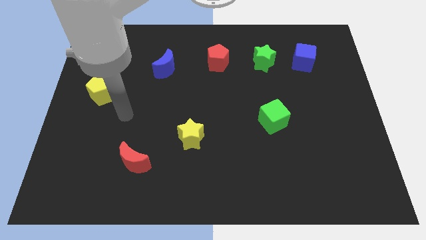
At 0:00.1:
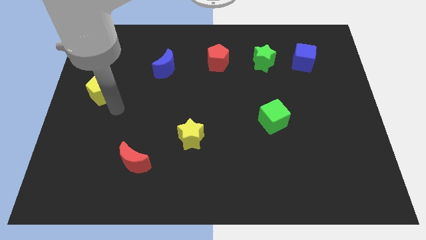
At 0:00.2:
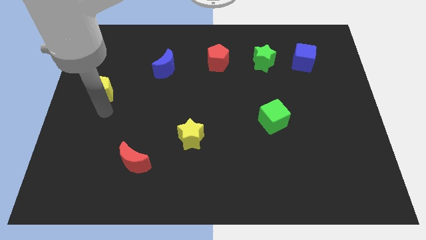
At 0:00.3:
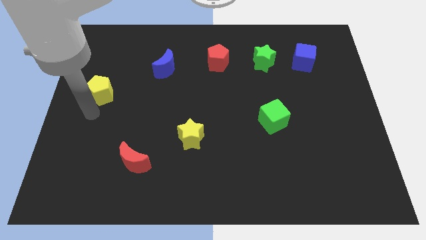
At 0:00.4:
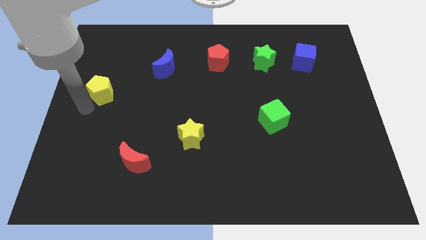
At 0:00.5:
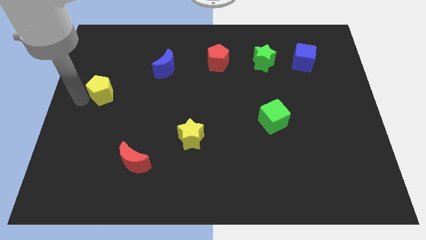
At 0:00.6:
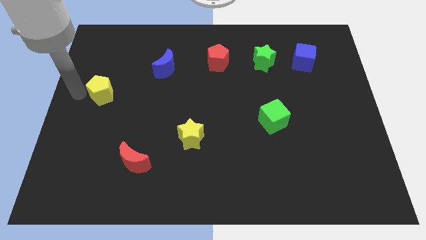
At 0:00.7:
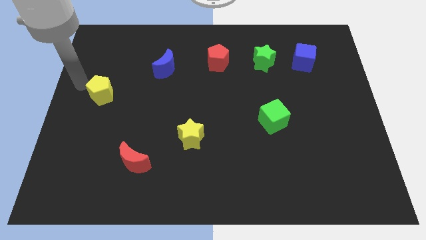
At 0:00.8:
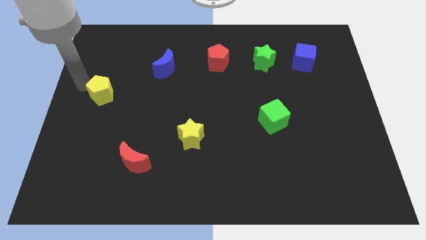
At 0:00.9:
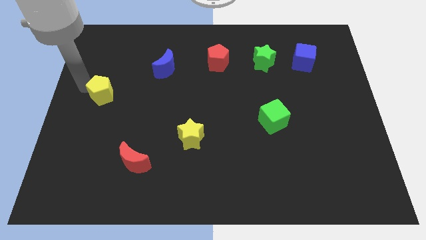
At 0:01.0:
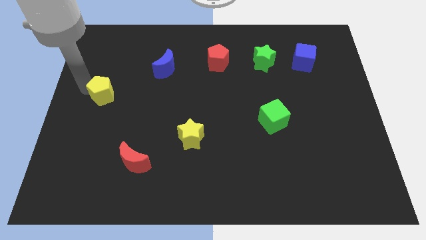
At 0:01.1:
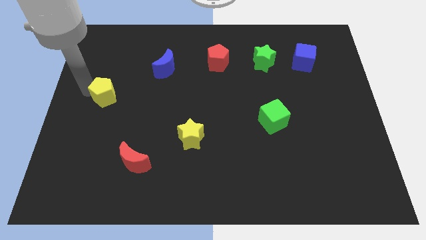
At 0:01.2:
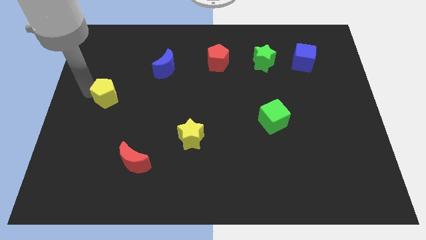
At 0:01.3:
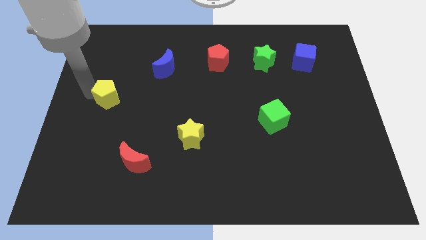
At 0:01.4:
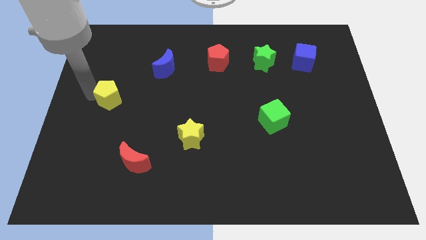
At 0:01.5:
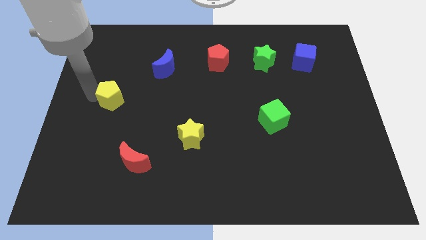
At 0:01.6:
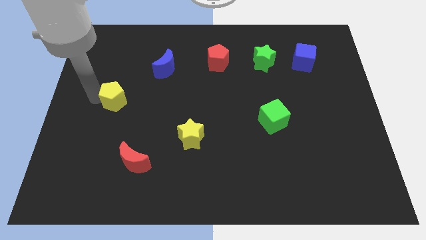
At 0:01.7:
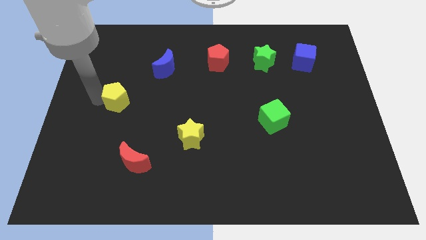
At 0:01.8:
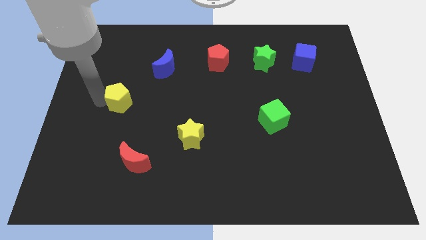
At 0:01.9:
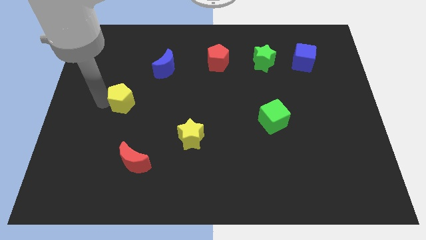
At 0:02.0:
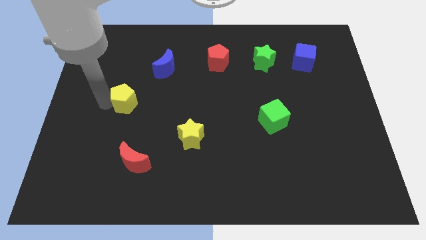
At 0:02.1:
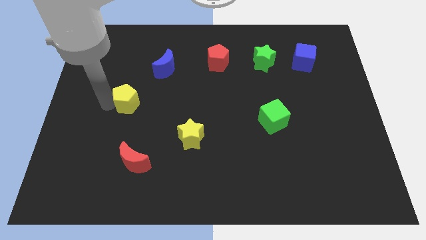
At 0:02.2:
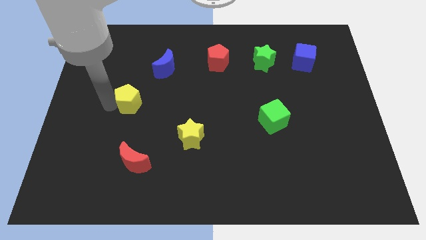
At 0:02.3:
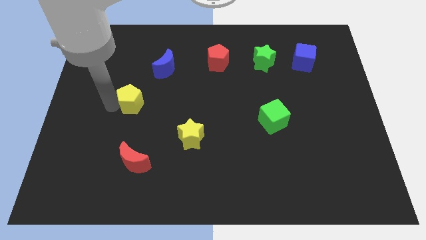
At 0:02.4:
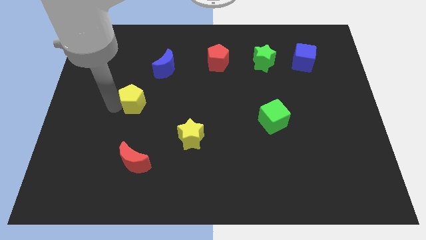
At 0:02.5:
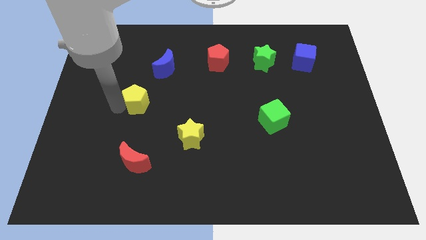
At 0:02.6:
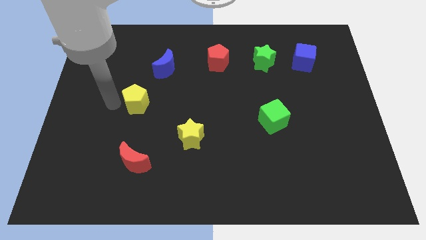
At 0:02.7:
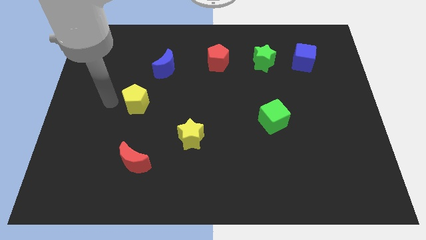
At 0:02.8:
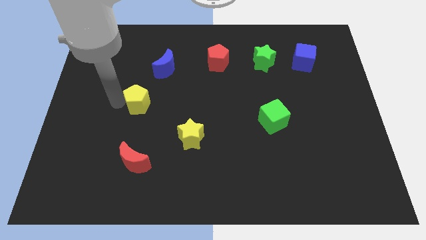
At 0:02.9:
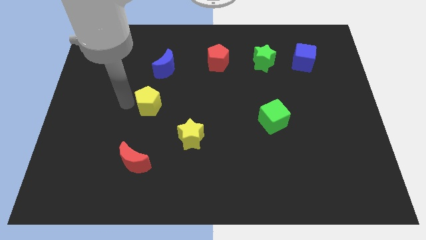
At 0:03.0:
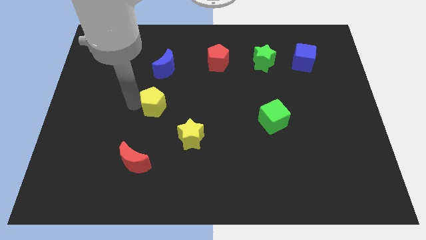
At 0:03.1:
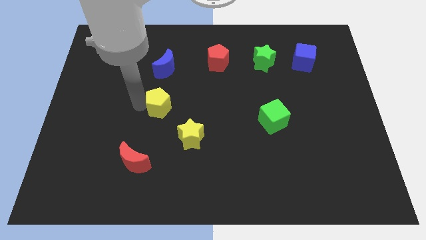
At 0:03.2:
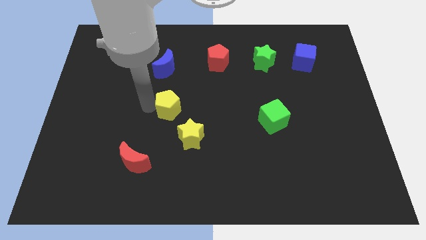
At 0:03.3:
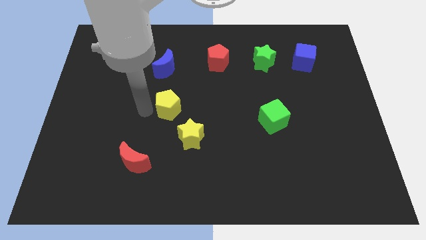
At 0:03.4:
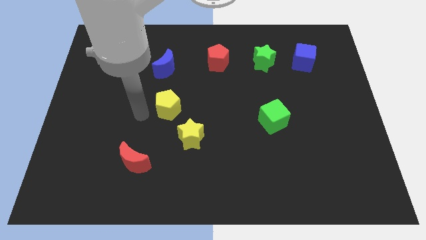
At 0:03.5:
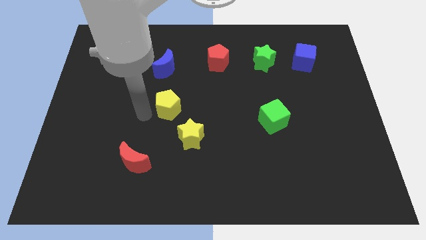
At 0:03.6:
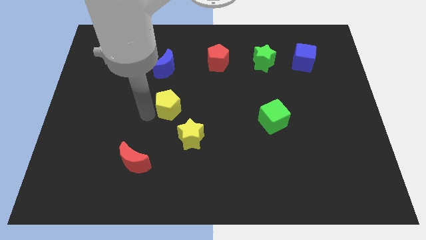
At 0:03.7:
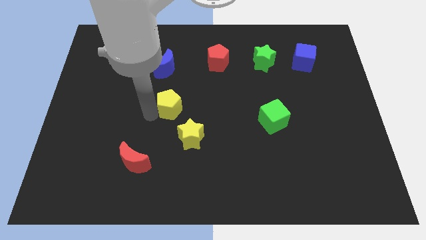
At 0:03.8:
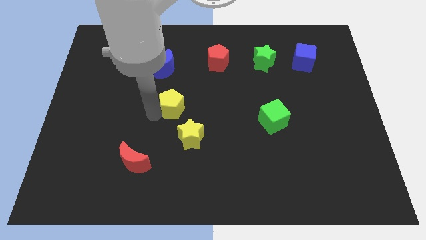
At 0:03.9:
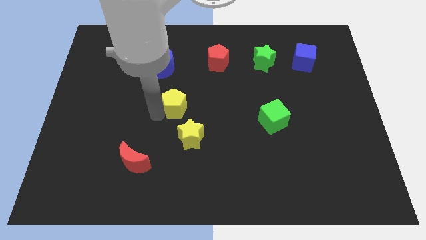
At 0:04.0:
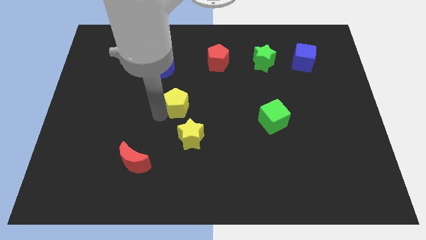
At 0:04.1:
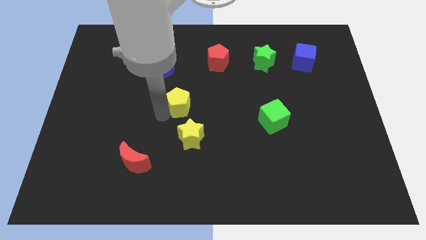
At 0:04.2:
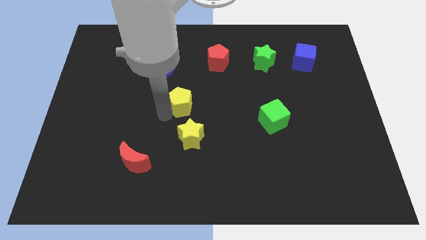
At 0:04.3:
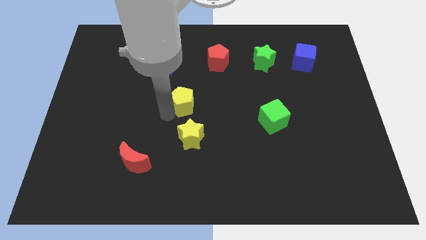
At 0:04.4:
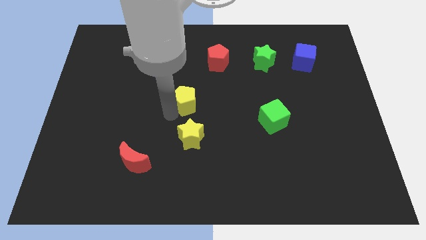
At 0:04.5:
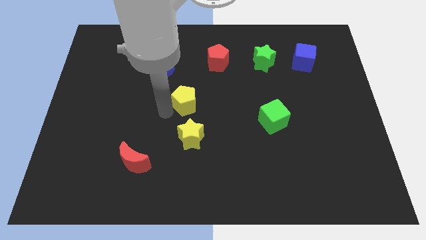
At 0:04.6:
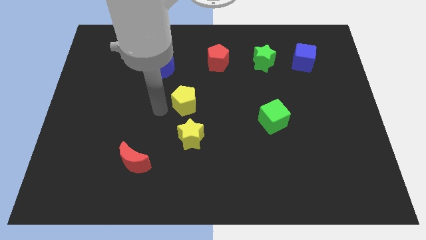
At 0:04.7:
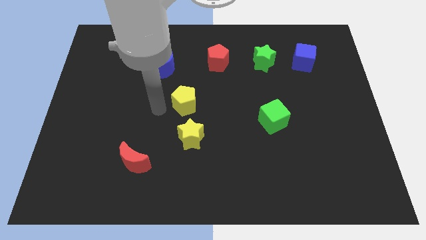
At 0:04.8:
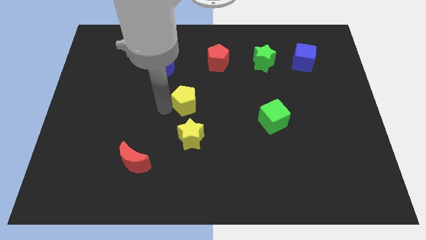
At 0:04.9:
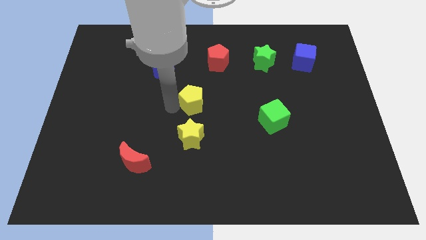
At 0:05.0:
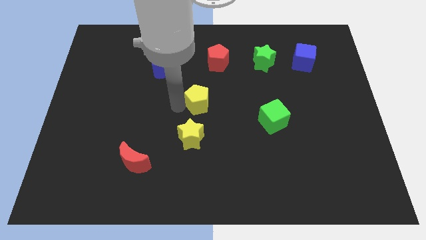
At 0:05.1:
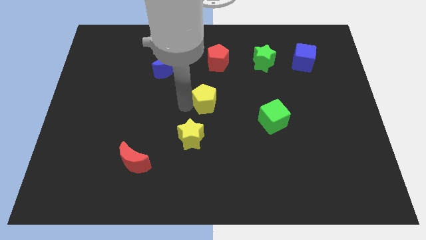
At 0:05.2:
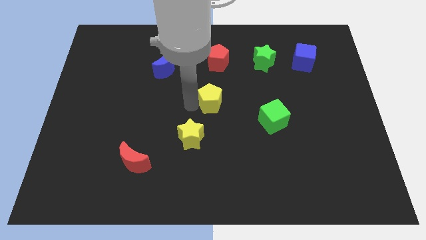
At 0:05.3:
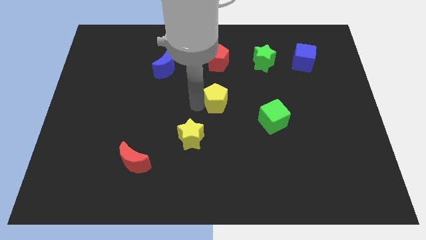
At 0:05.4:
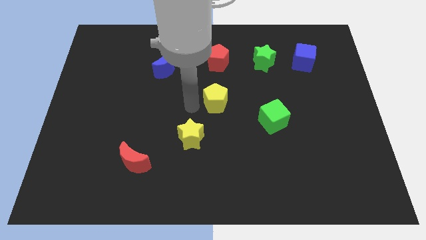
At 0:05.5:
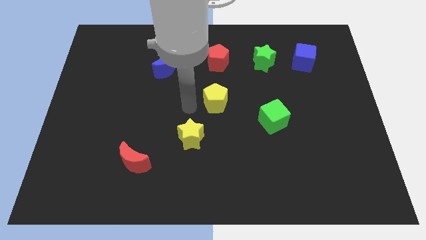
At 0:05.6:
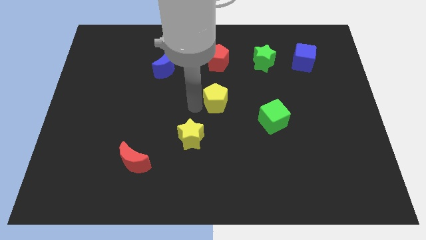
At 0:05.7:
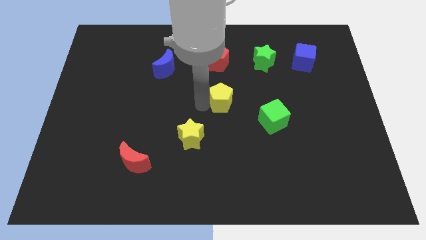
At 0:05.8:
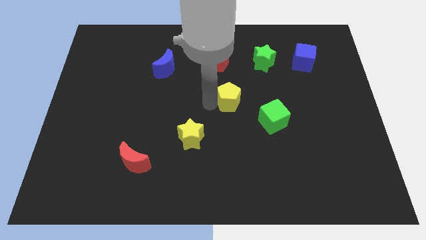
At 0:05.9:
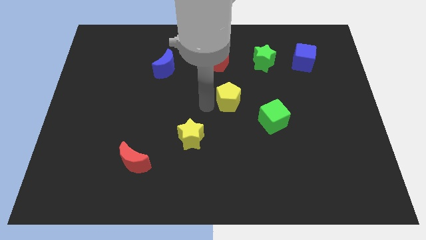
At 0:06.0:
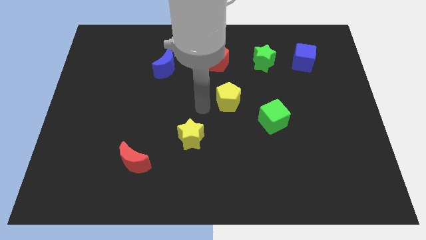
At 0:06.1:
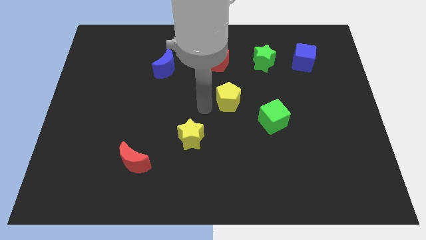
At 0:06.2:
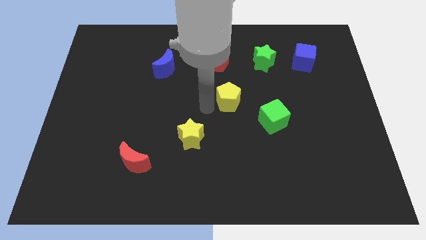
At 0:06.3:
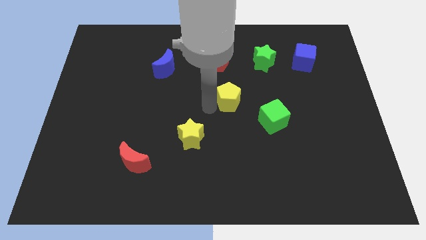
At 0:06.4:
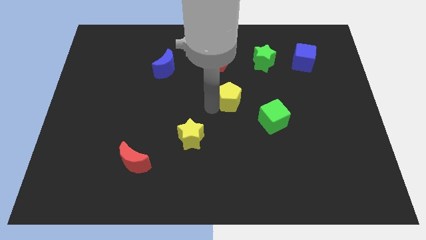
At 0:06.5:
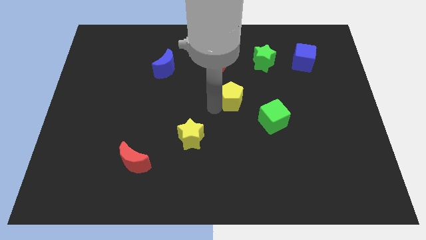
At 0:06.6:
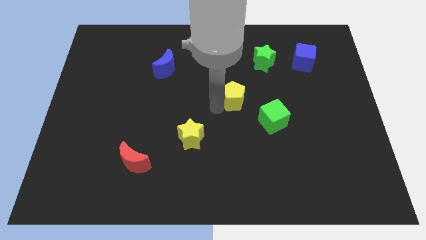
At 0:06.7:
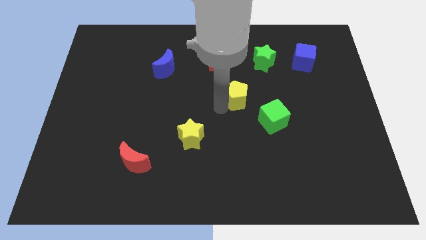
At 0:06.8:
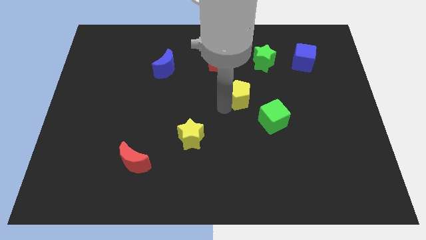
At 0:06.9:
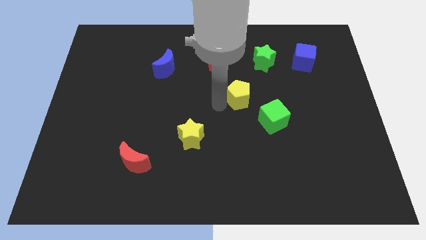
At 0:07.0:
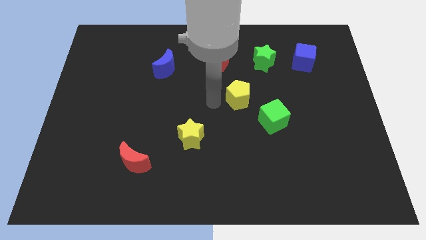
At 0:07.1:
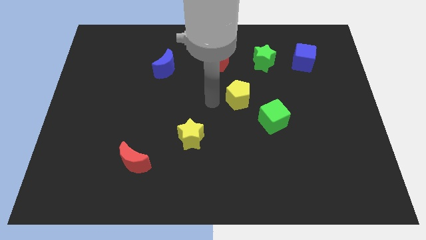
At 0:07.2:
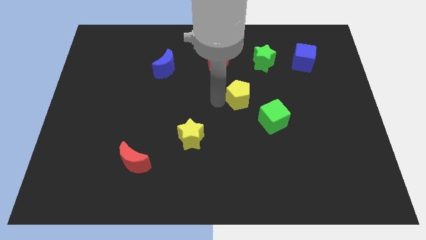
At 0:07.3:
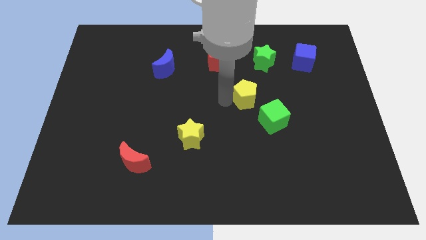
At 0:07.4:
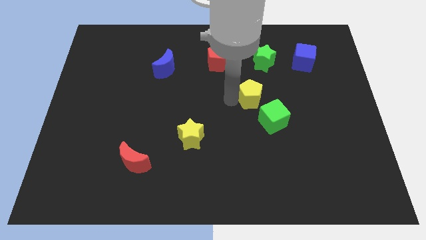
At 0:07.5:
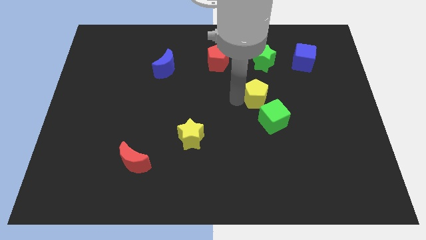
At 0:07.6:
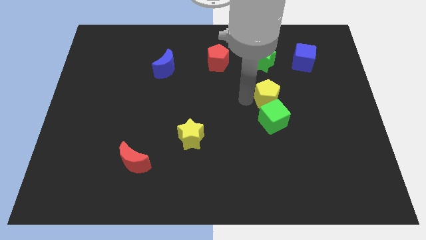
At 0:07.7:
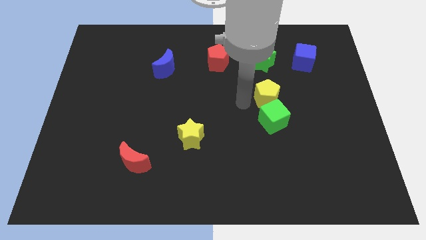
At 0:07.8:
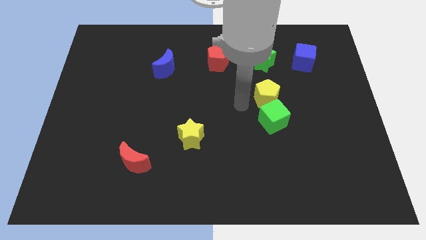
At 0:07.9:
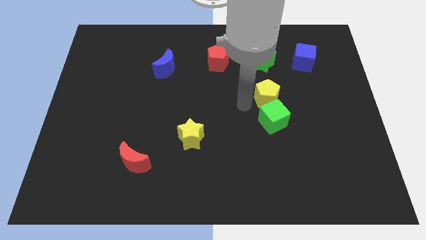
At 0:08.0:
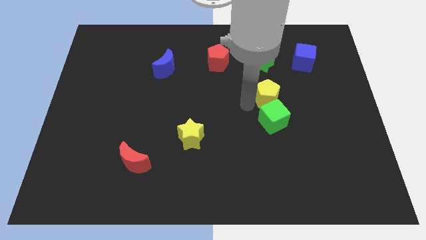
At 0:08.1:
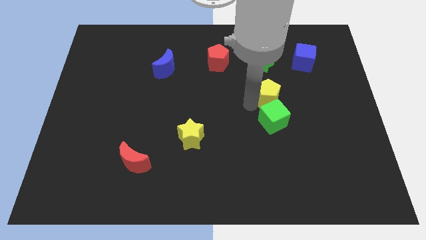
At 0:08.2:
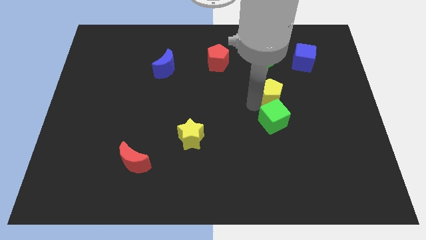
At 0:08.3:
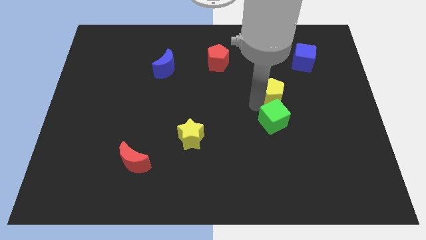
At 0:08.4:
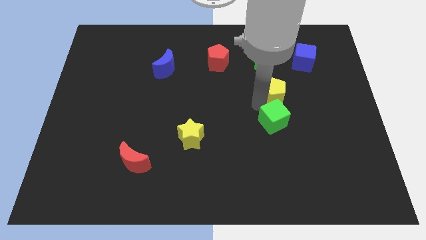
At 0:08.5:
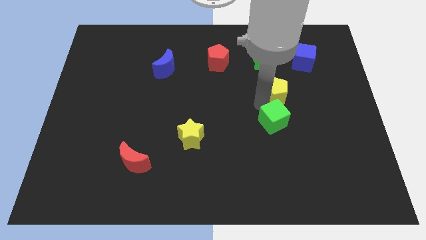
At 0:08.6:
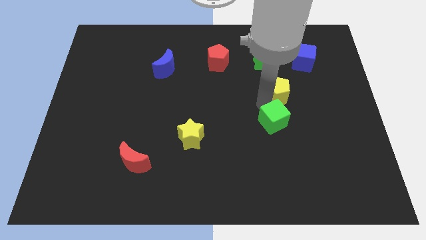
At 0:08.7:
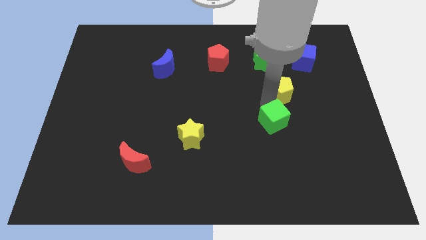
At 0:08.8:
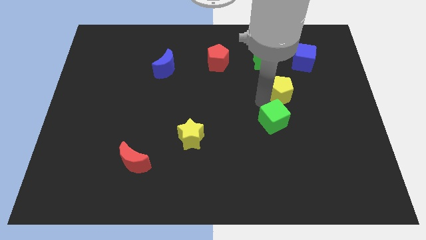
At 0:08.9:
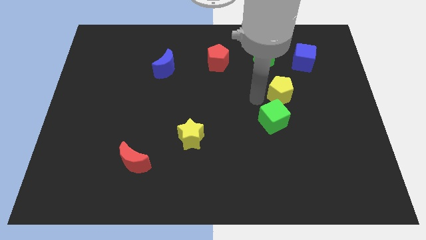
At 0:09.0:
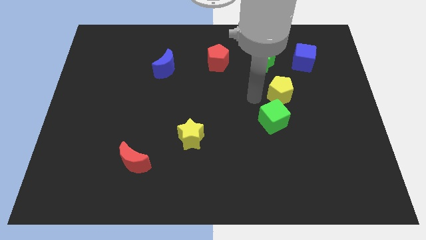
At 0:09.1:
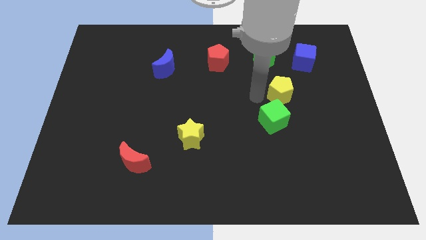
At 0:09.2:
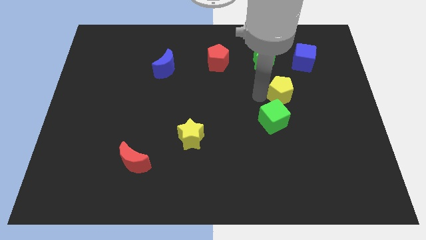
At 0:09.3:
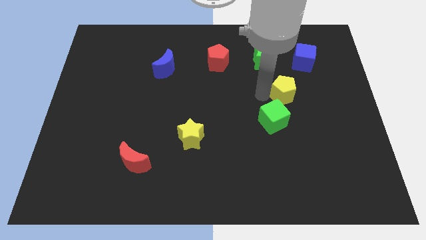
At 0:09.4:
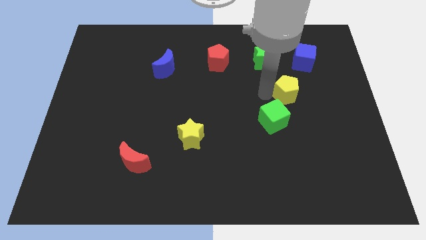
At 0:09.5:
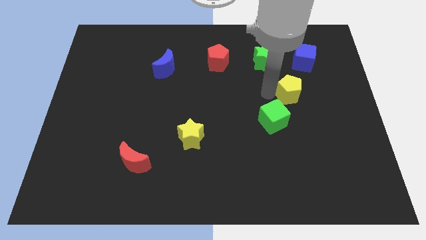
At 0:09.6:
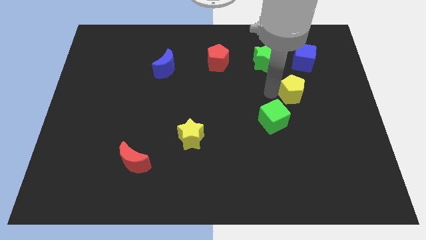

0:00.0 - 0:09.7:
move the yellow pentagon below the blue cube
